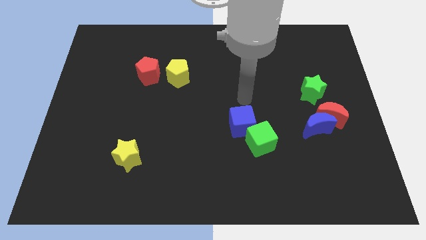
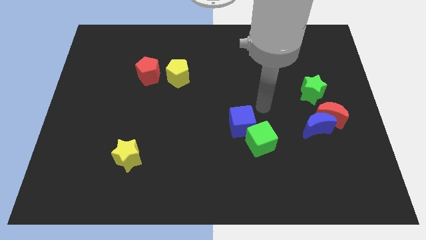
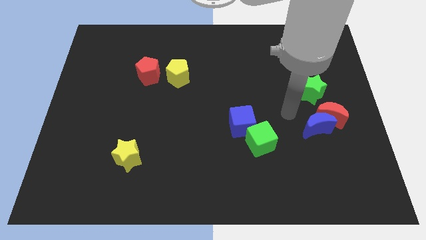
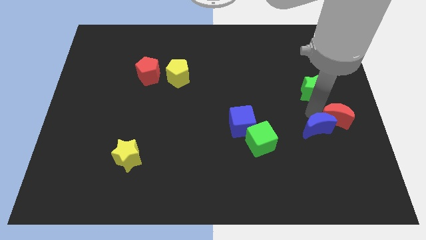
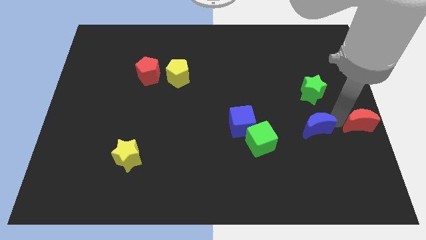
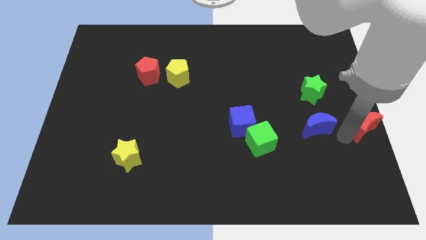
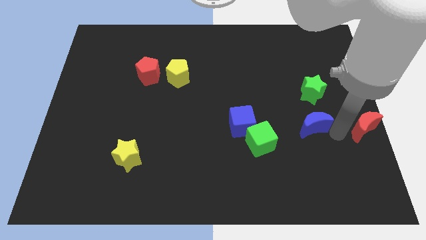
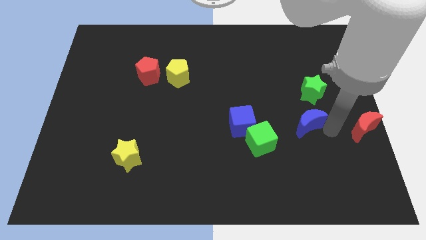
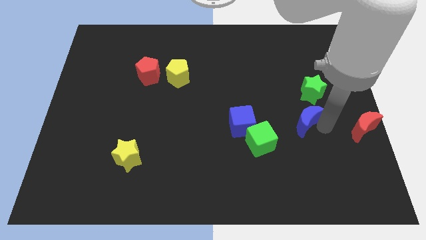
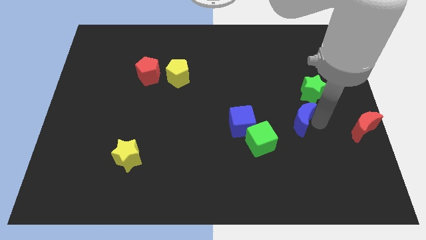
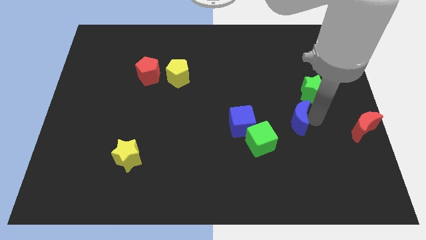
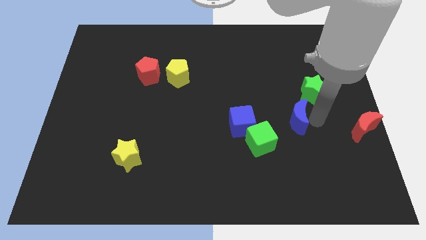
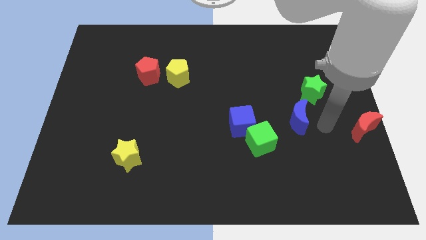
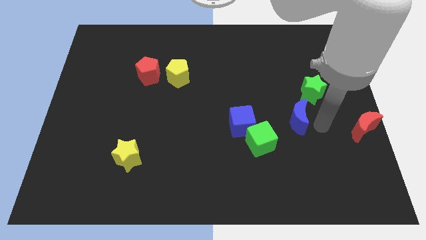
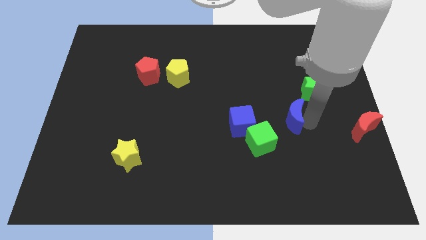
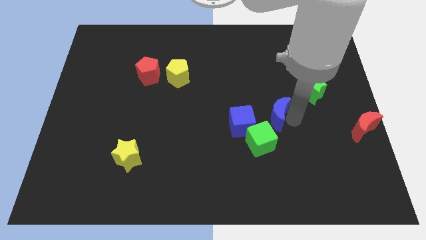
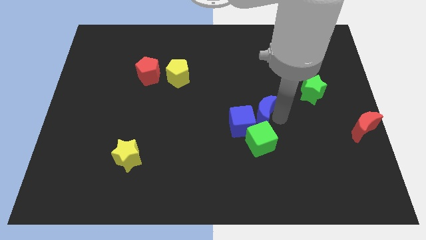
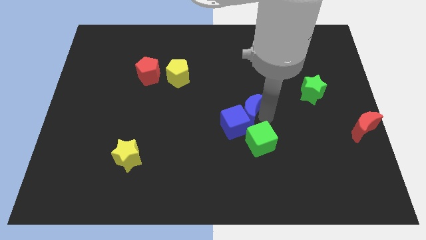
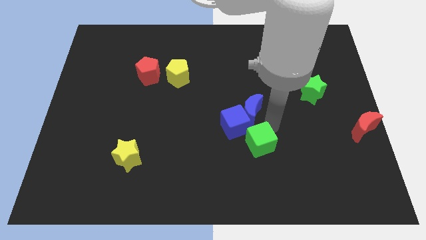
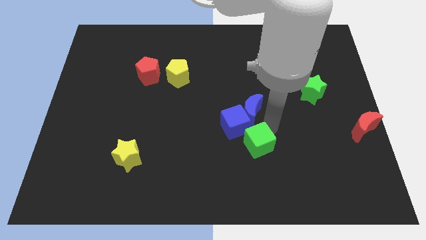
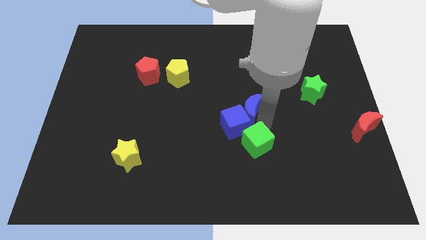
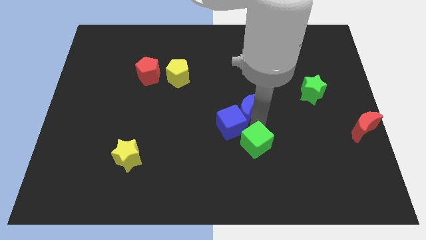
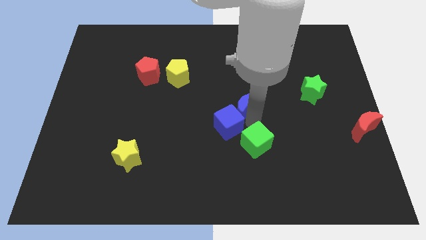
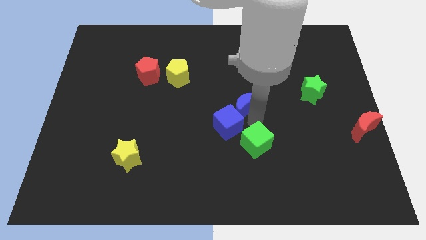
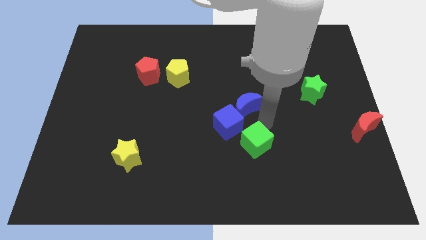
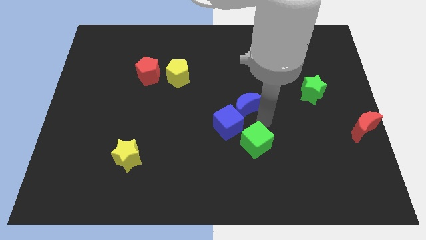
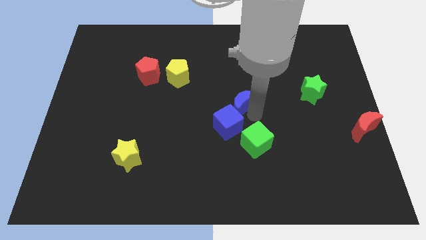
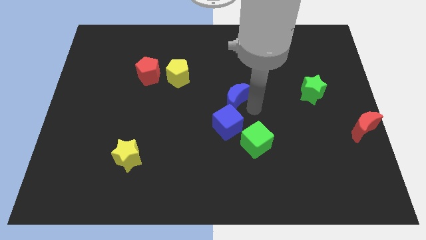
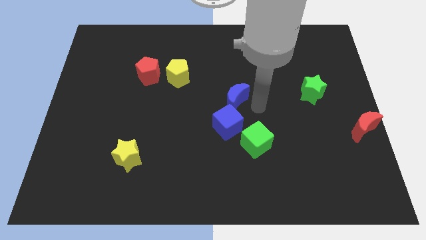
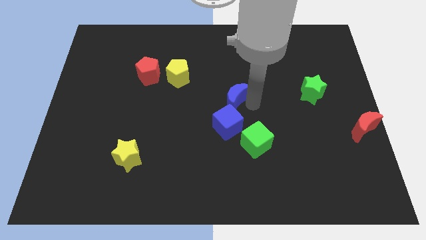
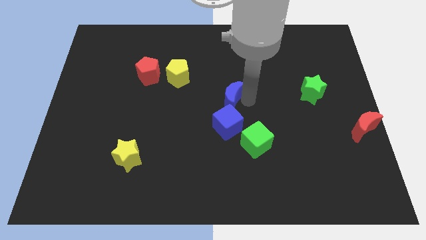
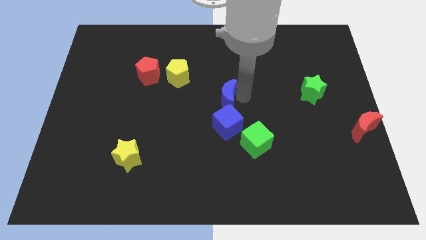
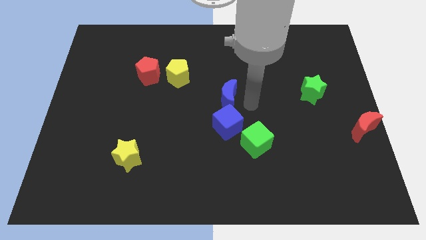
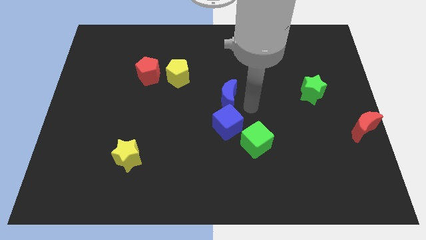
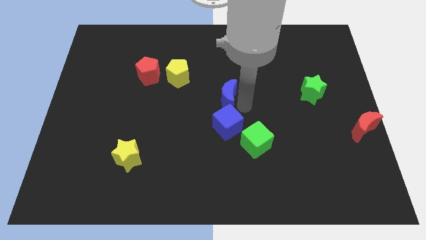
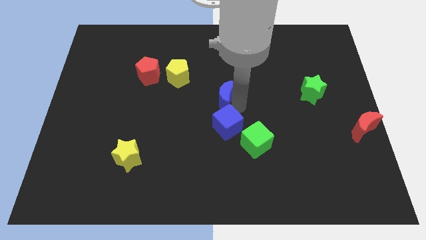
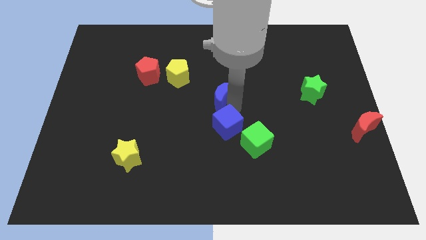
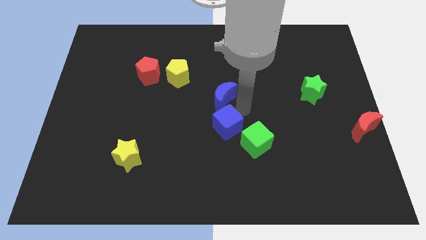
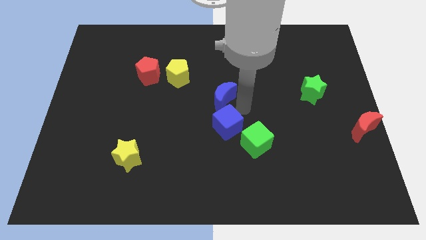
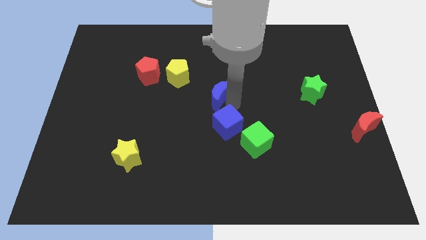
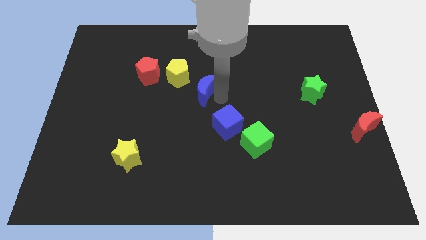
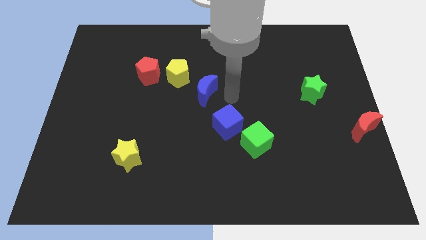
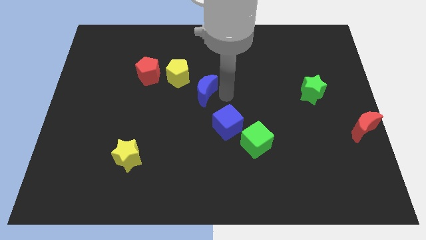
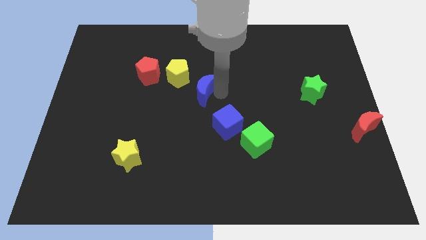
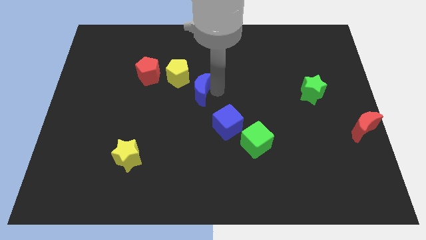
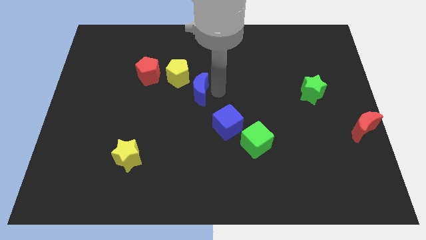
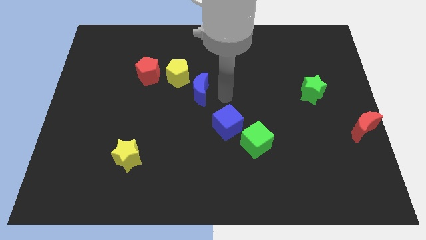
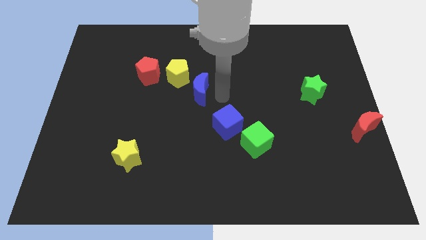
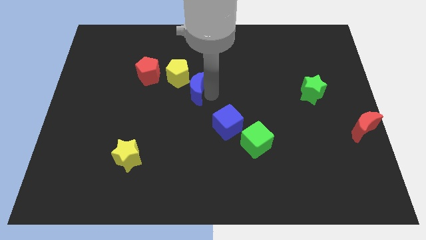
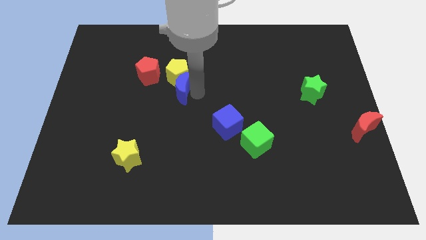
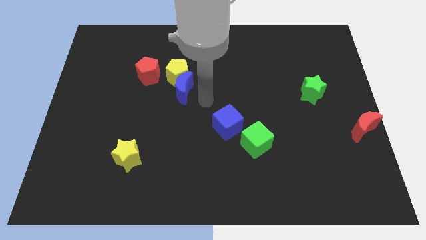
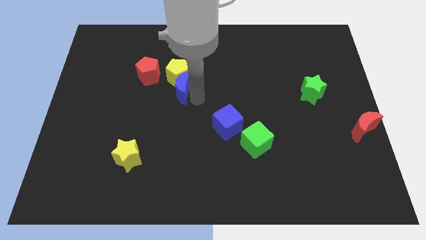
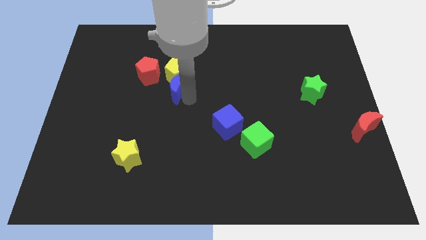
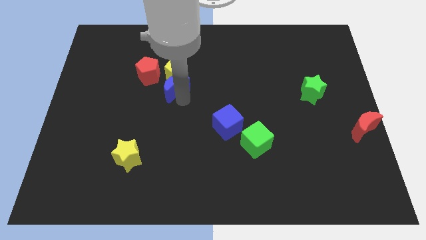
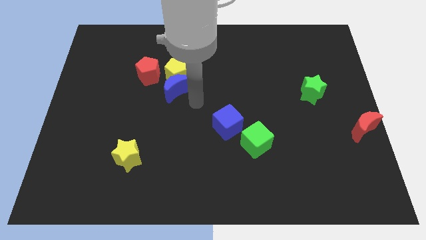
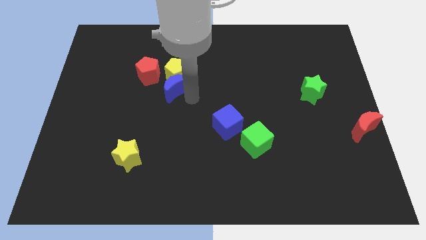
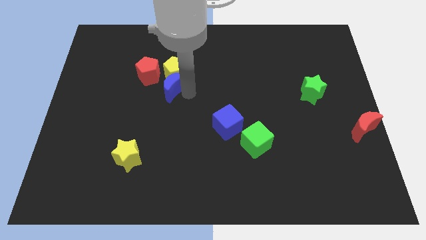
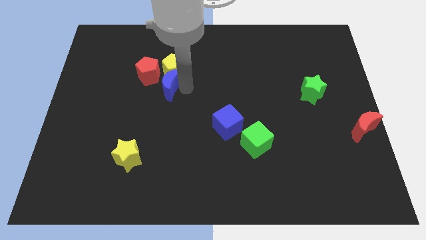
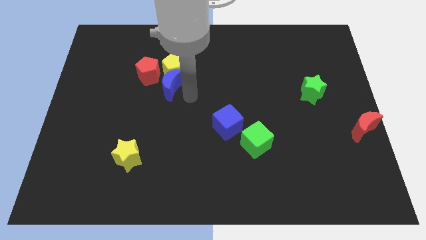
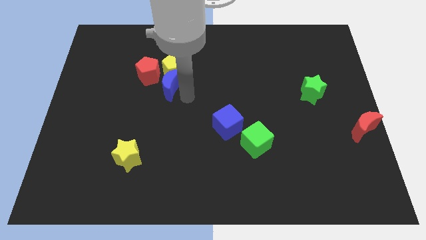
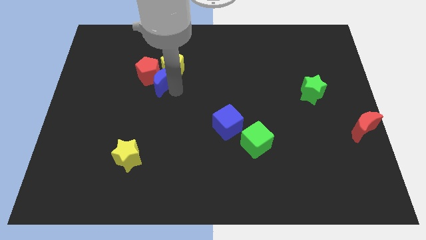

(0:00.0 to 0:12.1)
push the blue moon towards the red pentagon

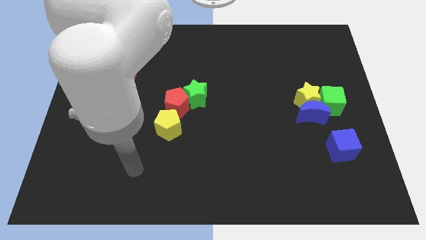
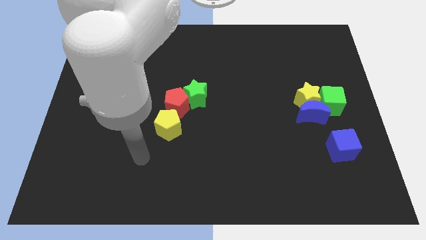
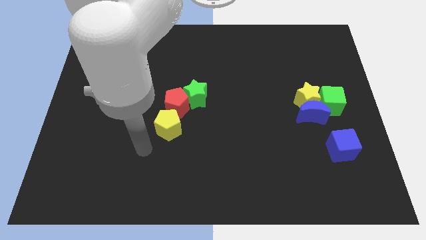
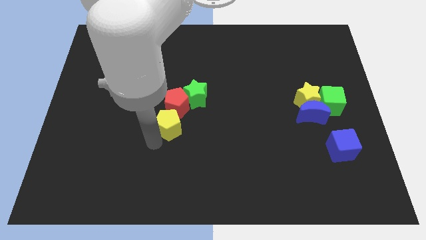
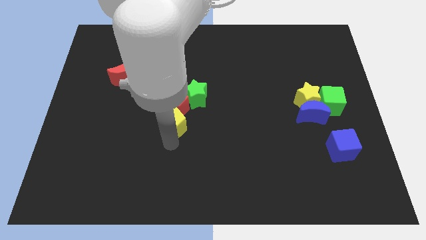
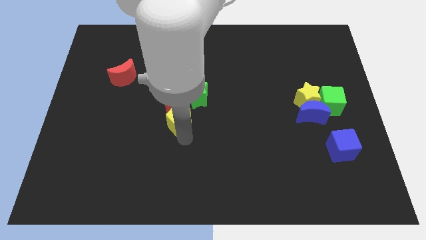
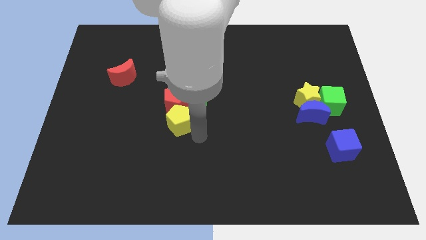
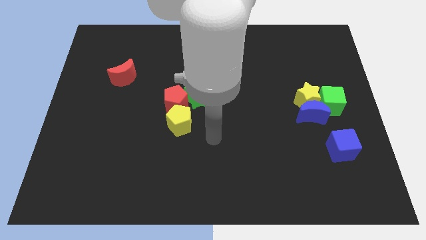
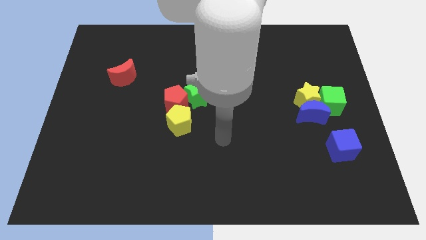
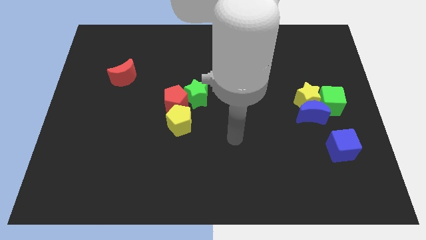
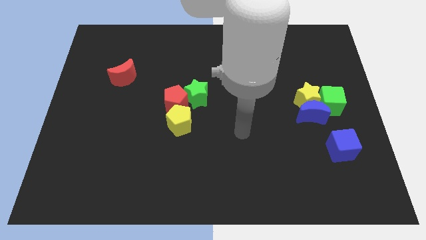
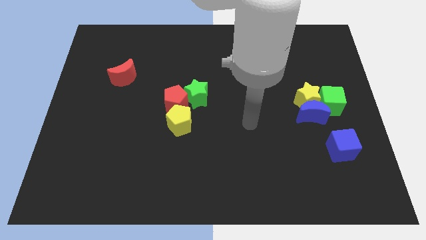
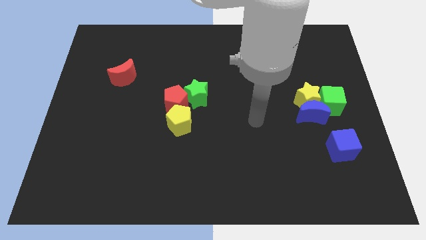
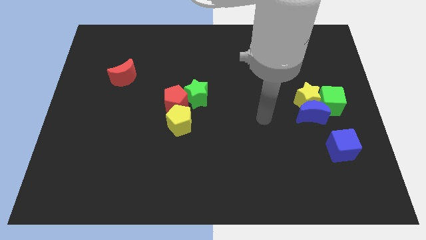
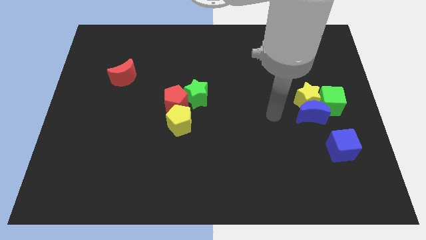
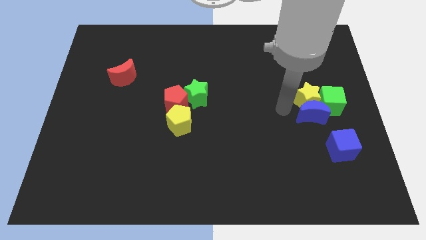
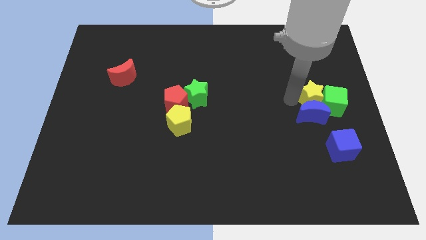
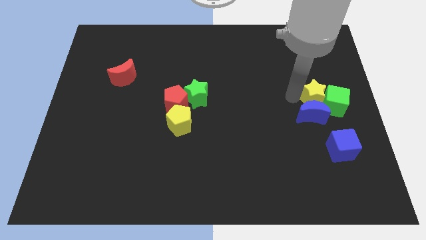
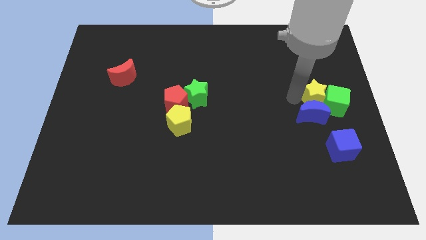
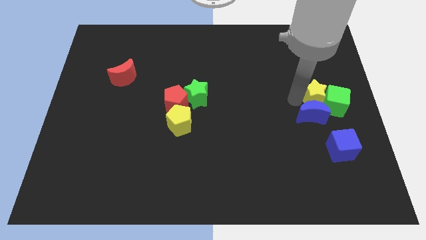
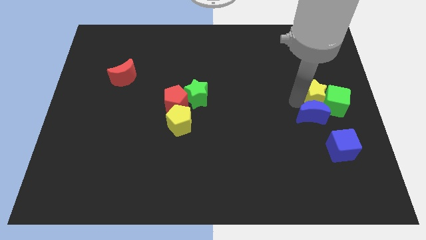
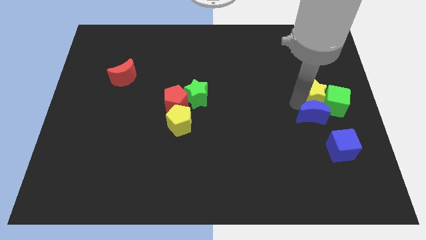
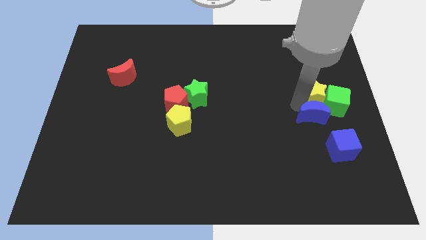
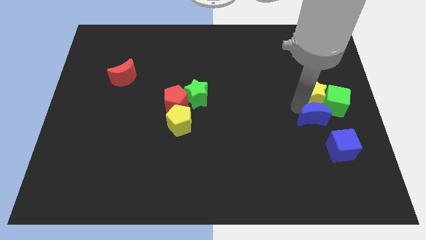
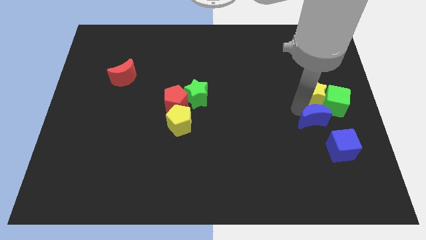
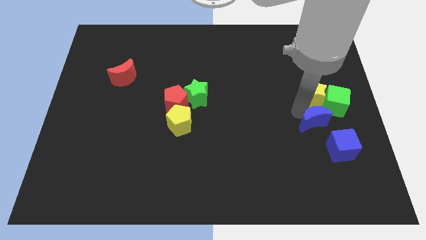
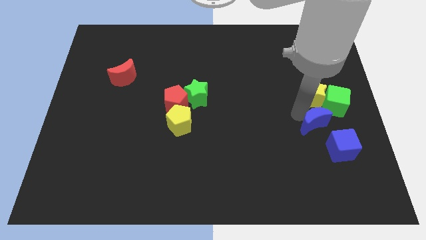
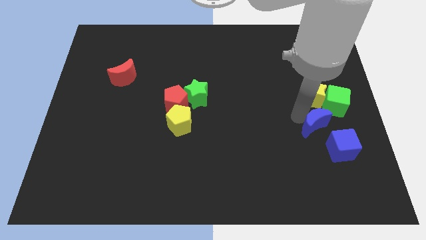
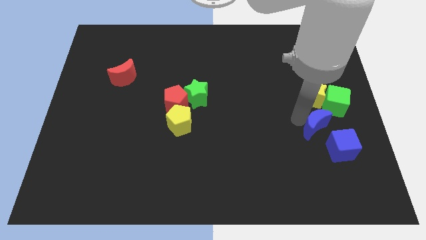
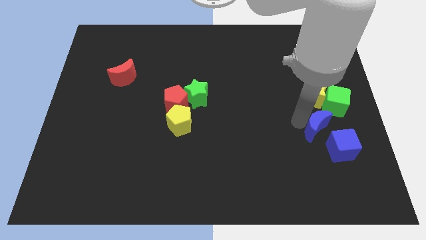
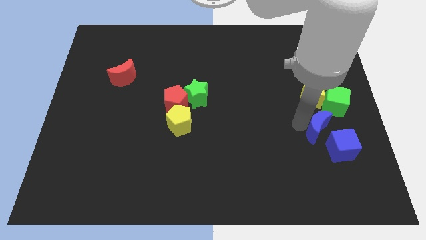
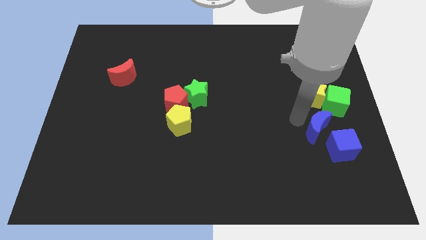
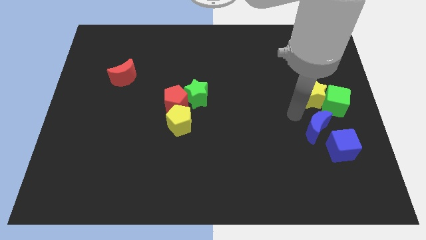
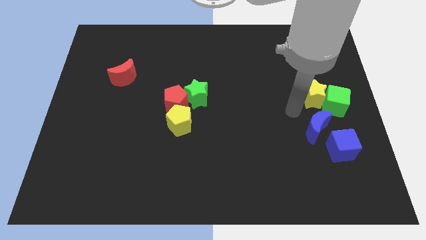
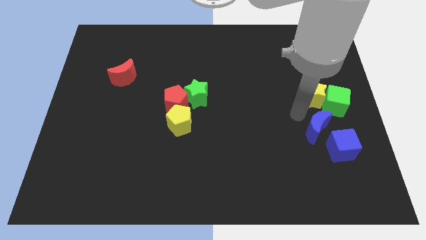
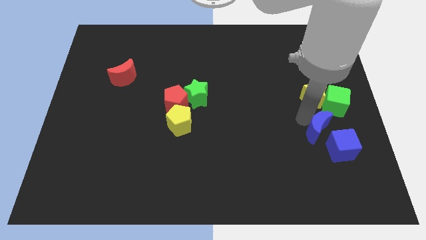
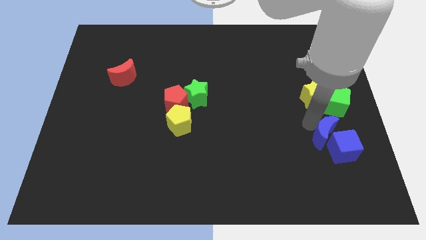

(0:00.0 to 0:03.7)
move the blue moon close to the blue cube
